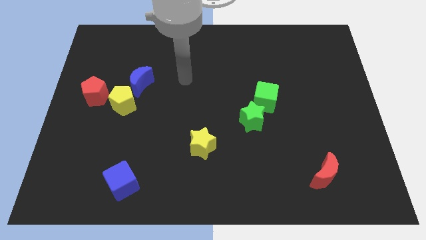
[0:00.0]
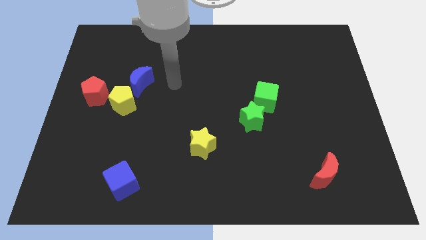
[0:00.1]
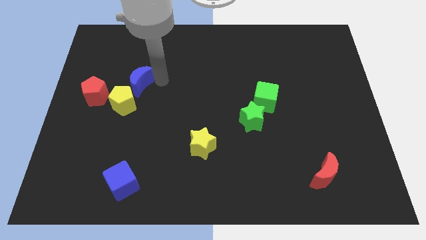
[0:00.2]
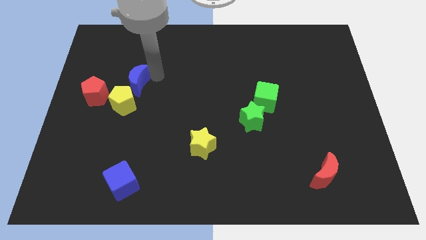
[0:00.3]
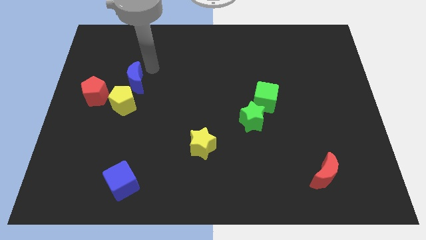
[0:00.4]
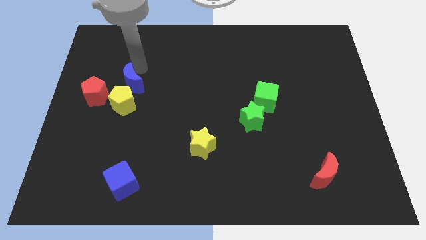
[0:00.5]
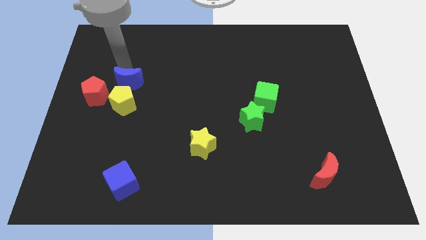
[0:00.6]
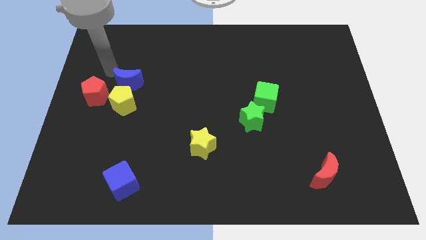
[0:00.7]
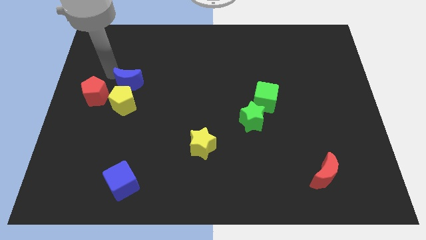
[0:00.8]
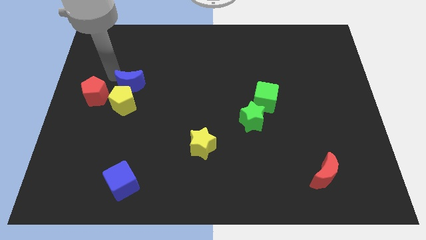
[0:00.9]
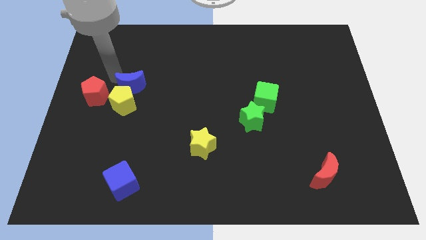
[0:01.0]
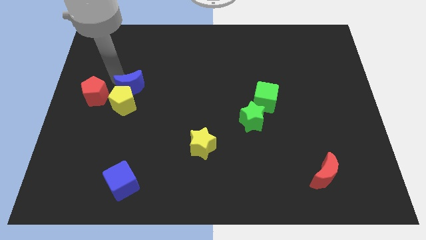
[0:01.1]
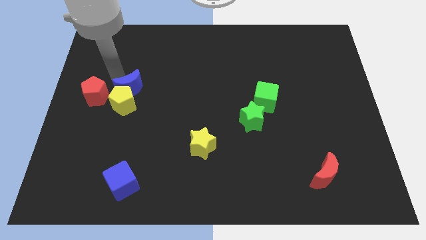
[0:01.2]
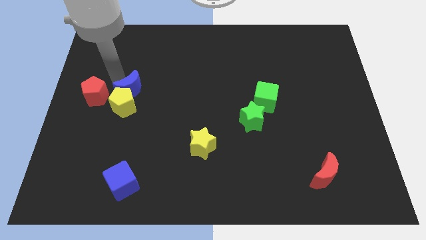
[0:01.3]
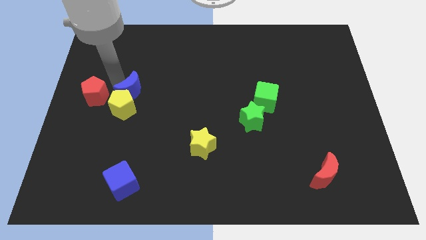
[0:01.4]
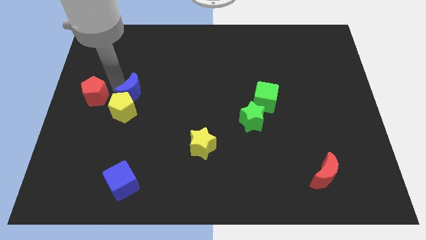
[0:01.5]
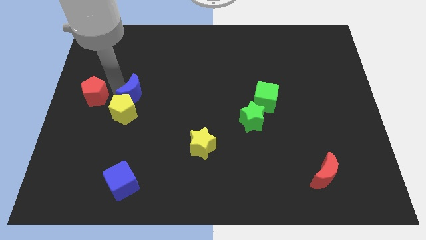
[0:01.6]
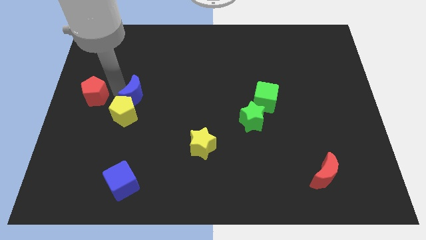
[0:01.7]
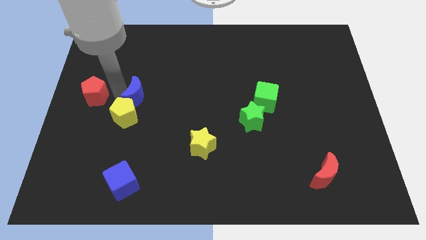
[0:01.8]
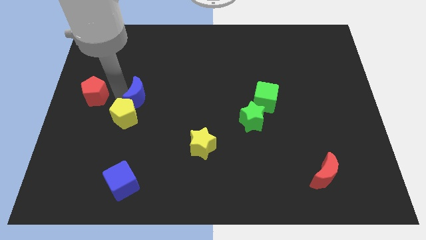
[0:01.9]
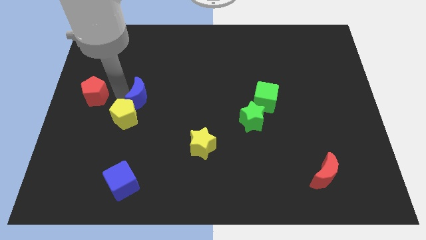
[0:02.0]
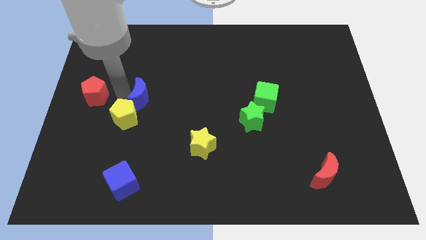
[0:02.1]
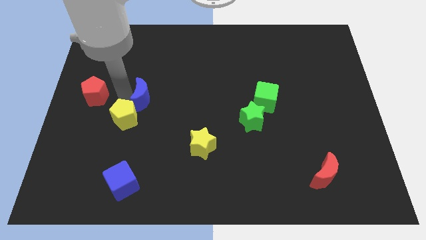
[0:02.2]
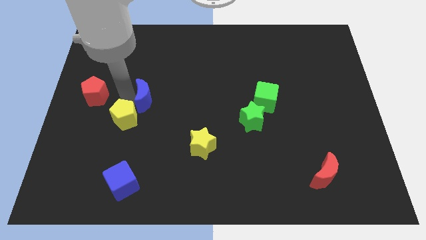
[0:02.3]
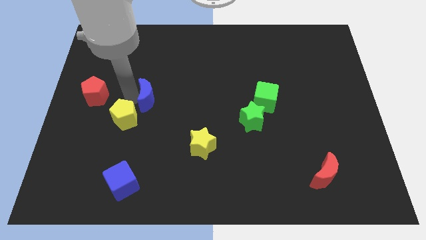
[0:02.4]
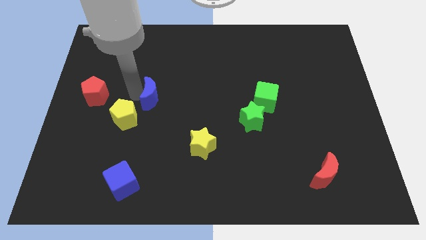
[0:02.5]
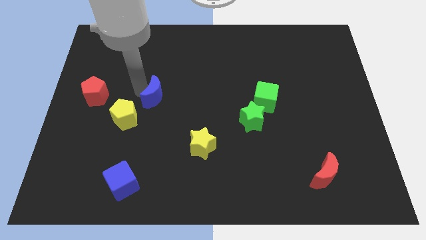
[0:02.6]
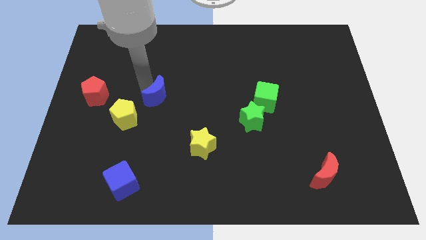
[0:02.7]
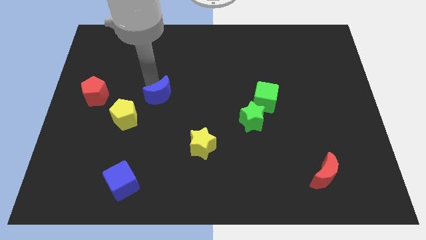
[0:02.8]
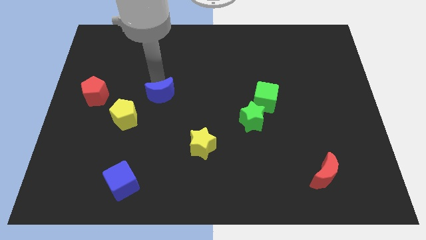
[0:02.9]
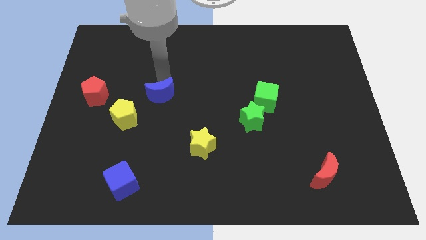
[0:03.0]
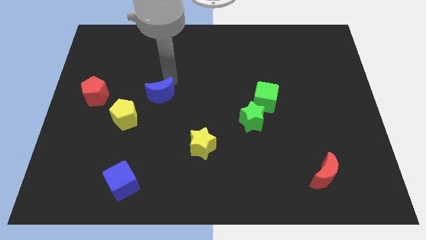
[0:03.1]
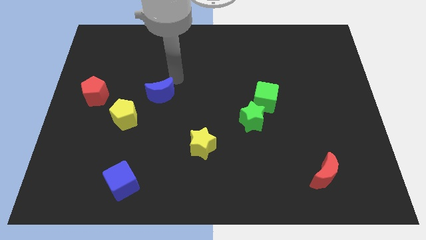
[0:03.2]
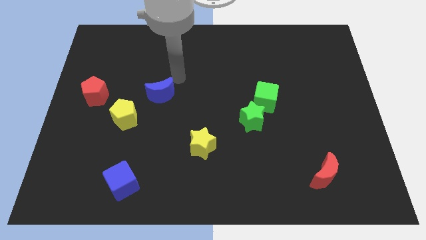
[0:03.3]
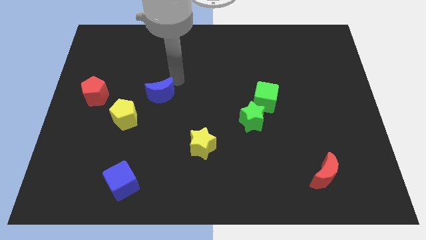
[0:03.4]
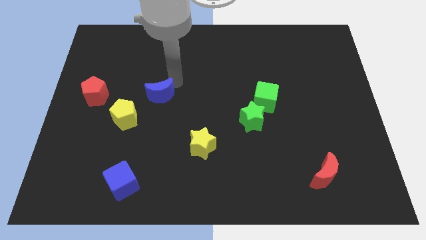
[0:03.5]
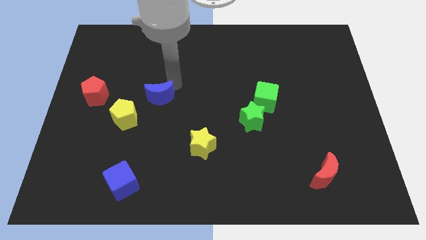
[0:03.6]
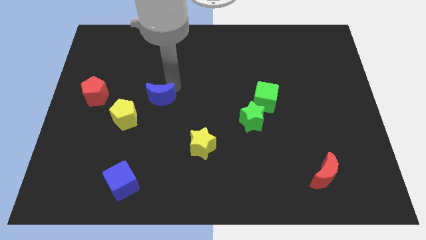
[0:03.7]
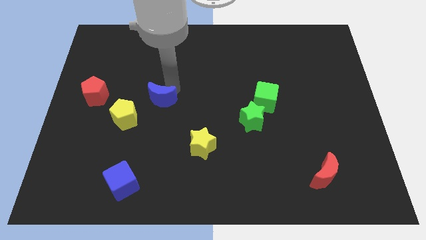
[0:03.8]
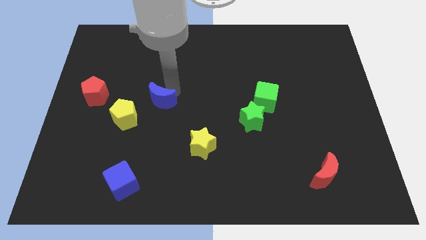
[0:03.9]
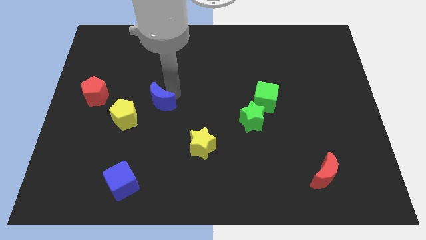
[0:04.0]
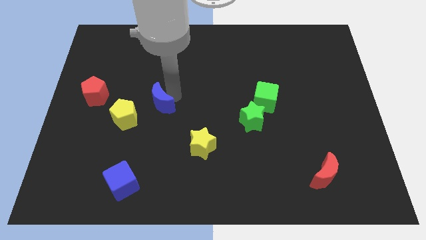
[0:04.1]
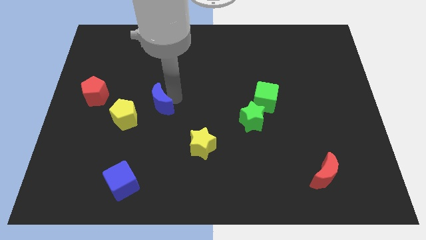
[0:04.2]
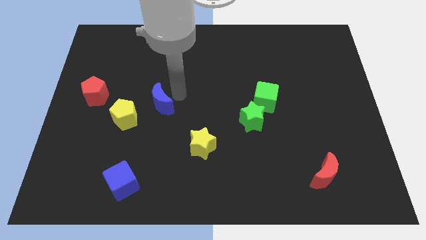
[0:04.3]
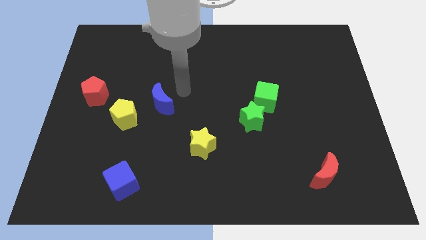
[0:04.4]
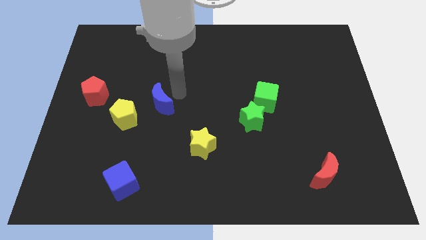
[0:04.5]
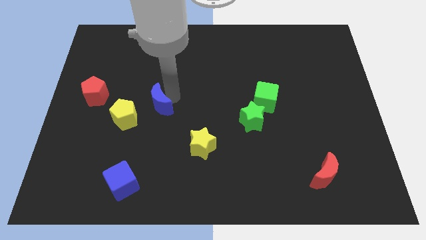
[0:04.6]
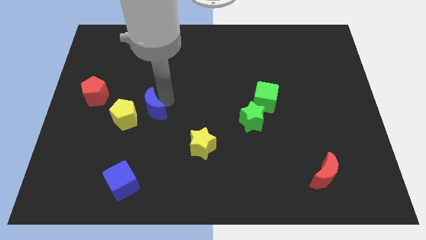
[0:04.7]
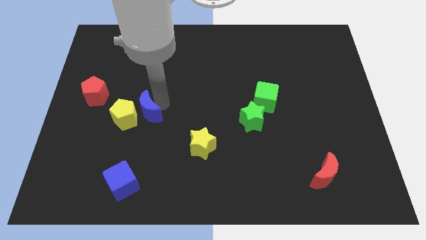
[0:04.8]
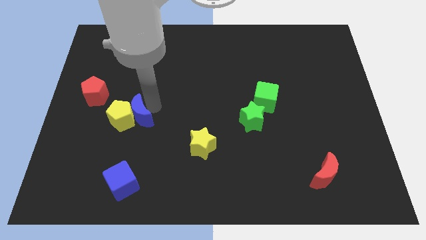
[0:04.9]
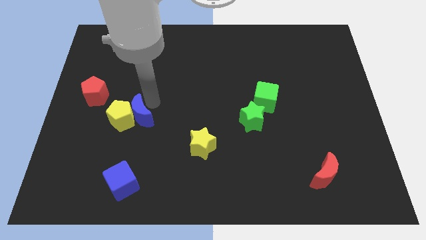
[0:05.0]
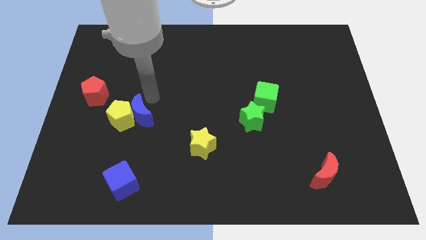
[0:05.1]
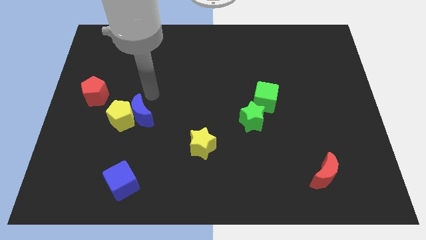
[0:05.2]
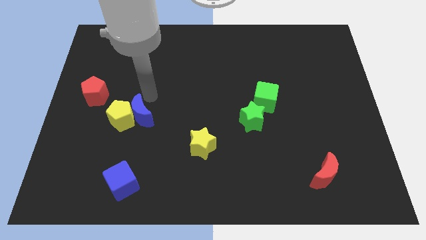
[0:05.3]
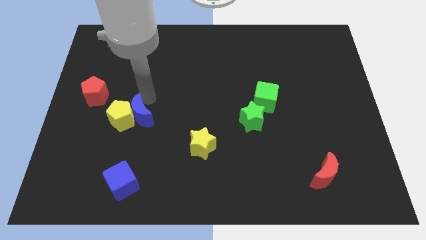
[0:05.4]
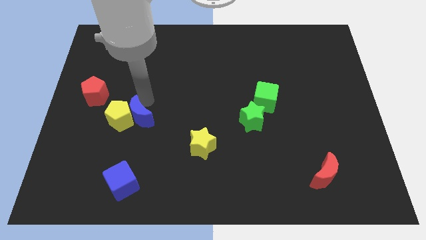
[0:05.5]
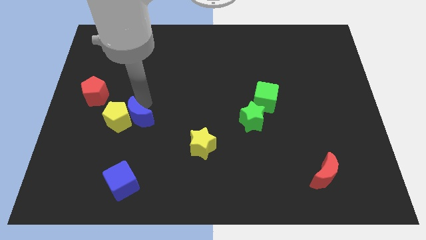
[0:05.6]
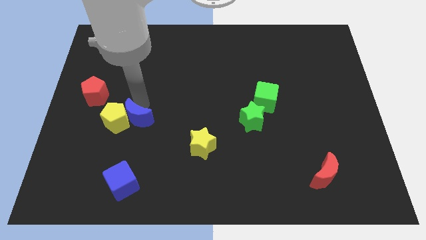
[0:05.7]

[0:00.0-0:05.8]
put the blue moon above the blue cube

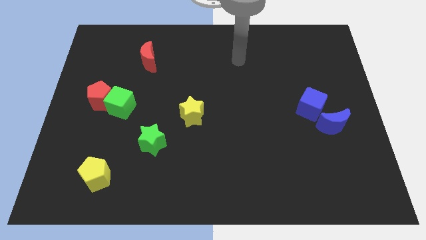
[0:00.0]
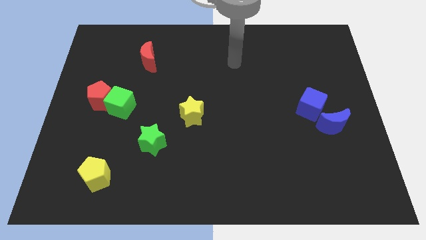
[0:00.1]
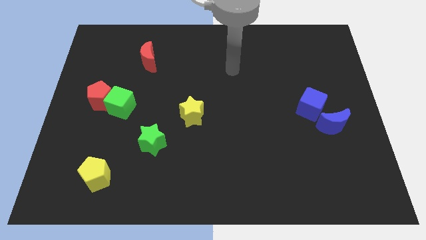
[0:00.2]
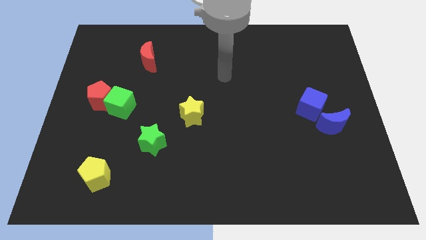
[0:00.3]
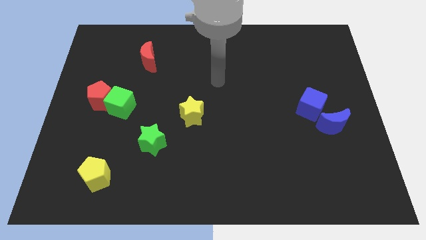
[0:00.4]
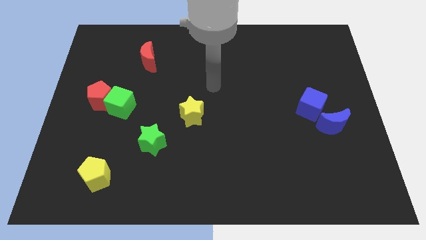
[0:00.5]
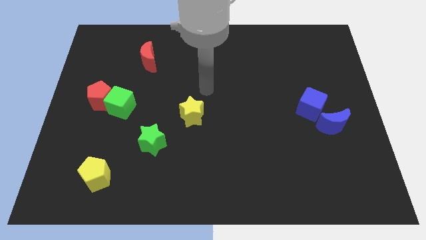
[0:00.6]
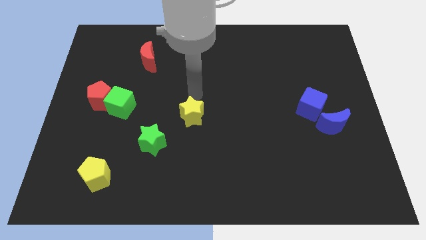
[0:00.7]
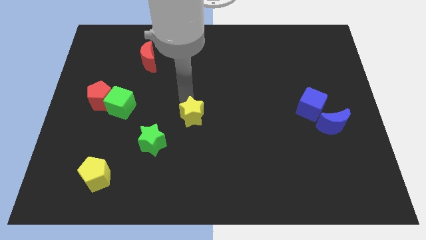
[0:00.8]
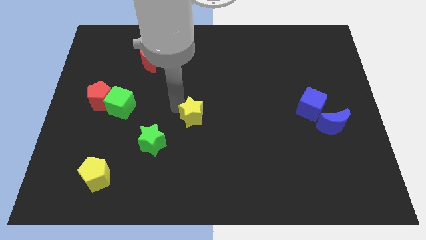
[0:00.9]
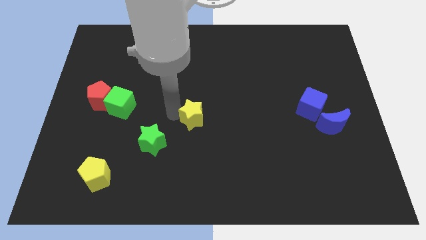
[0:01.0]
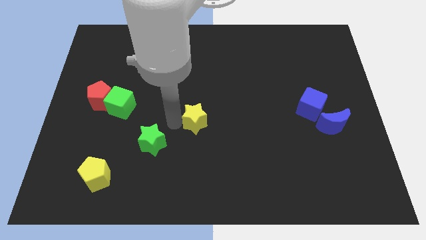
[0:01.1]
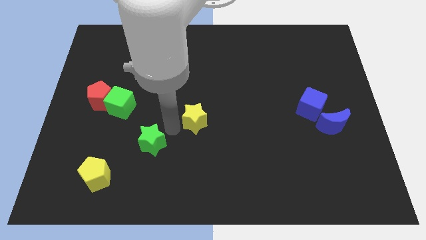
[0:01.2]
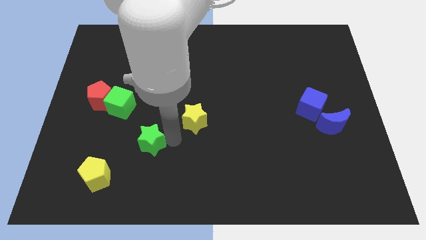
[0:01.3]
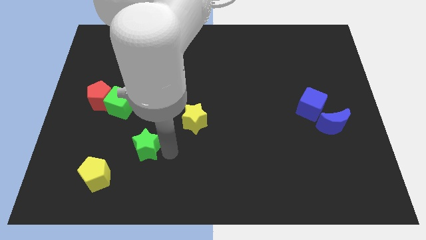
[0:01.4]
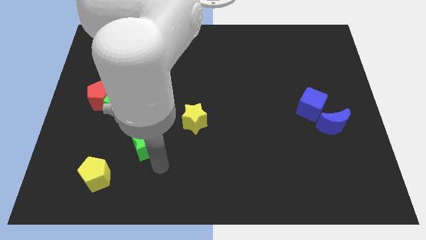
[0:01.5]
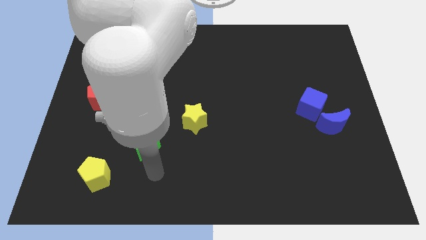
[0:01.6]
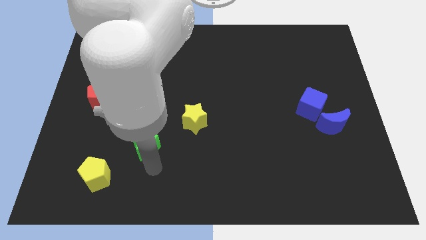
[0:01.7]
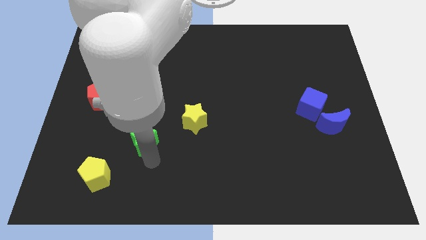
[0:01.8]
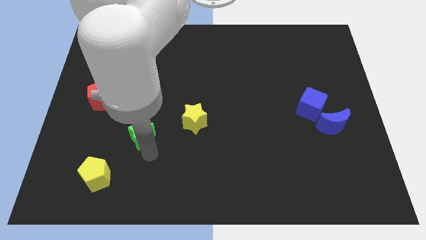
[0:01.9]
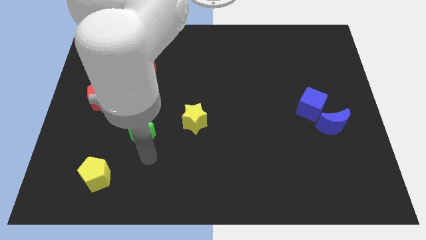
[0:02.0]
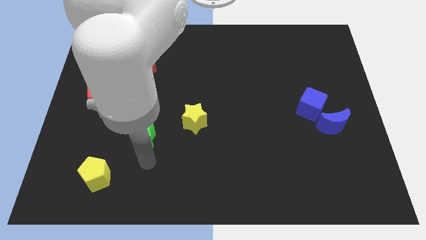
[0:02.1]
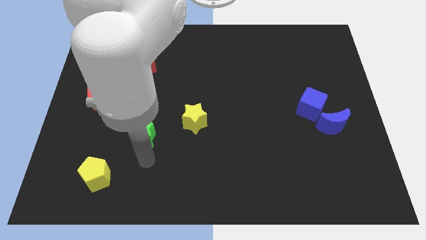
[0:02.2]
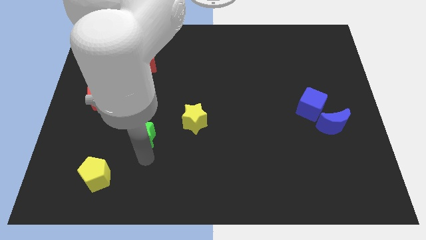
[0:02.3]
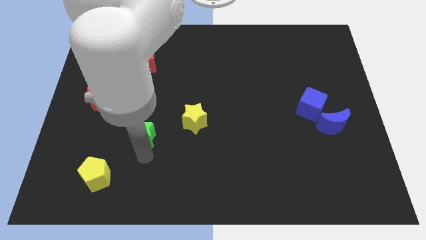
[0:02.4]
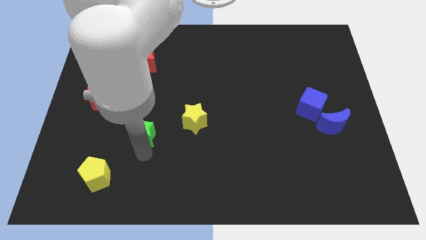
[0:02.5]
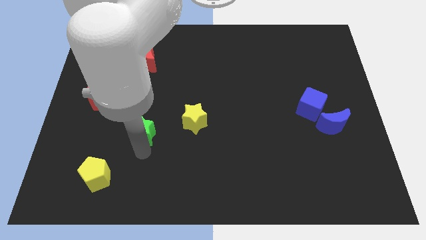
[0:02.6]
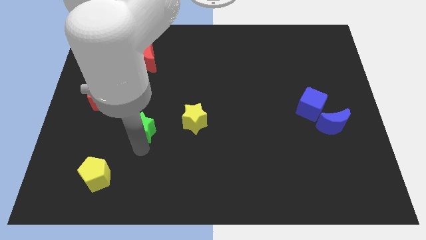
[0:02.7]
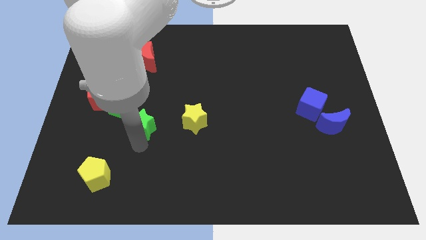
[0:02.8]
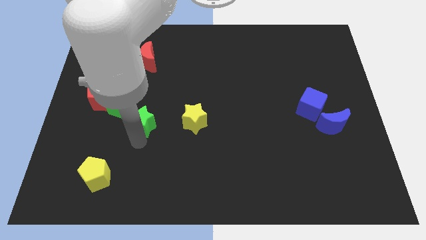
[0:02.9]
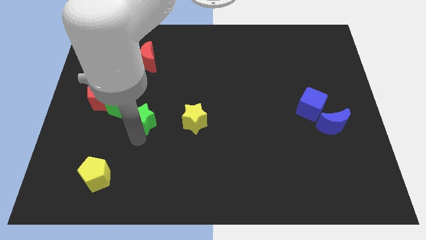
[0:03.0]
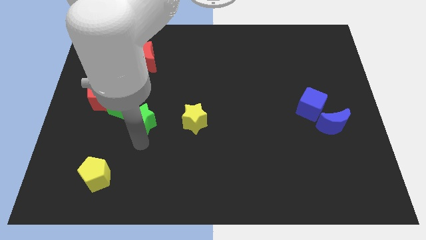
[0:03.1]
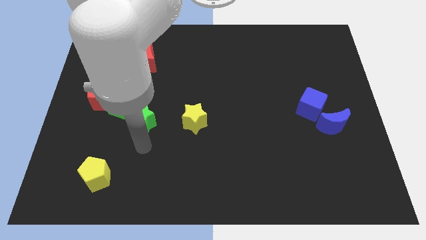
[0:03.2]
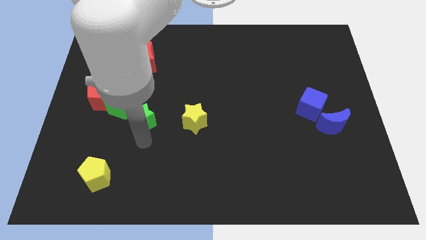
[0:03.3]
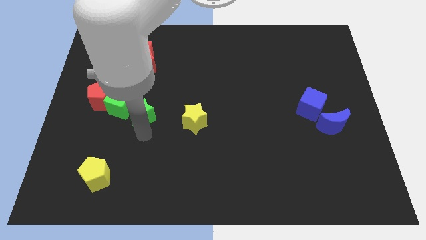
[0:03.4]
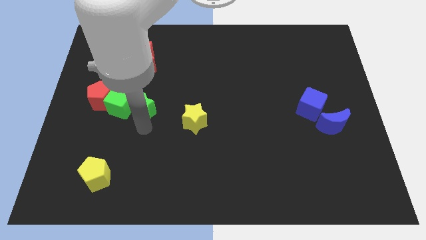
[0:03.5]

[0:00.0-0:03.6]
push the green star just right of the red pentagon
